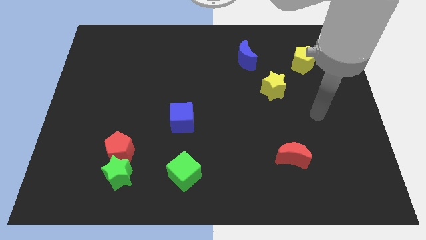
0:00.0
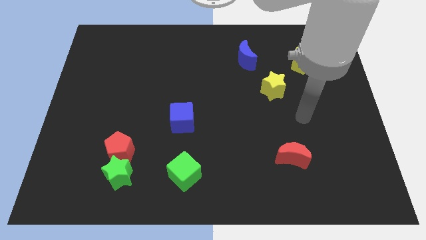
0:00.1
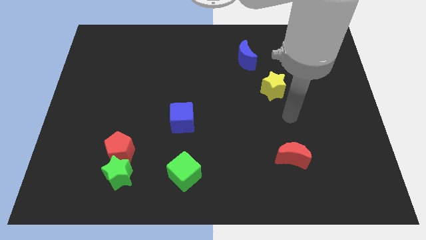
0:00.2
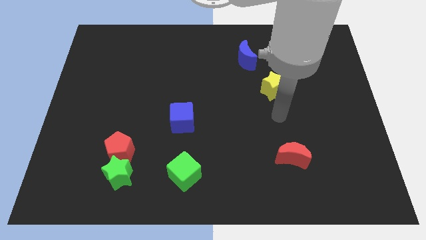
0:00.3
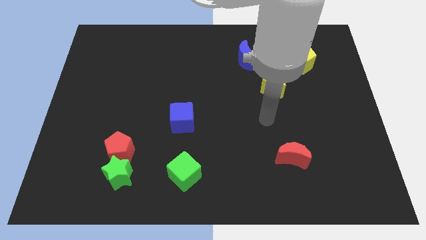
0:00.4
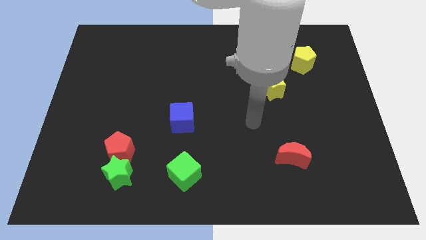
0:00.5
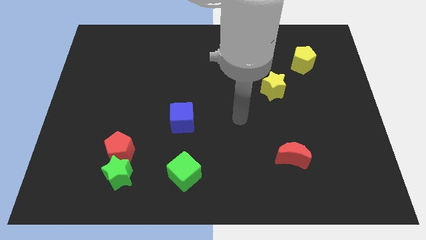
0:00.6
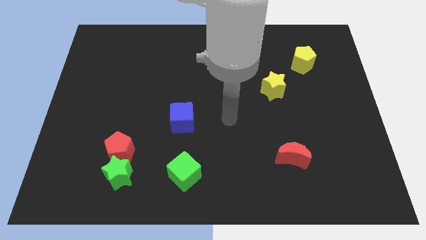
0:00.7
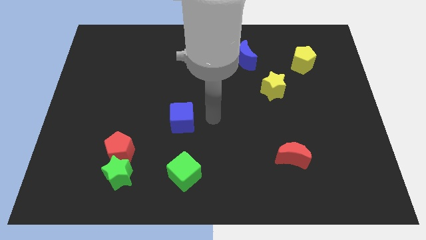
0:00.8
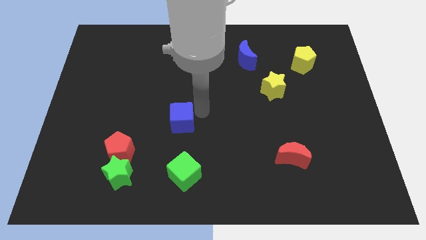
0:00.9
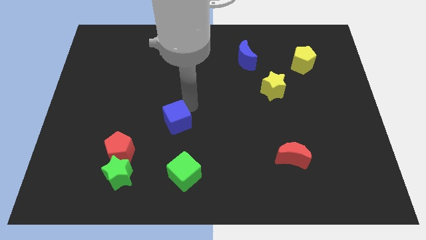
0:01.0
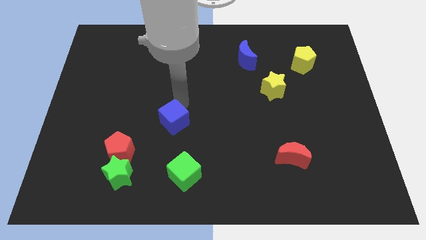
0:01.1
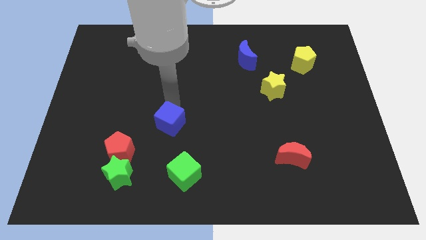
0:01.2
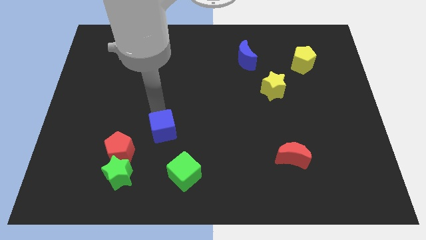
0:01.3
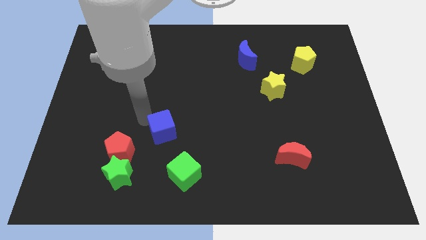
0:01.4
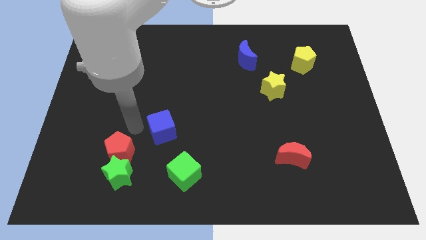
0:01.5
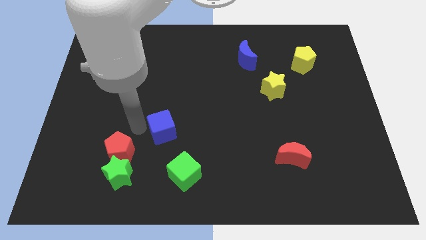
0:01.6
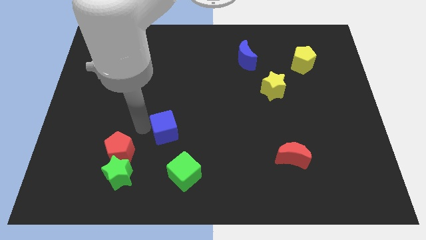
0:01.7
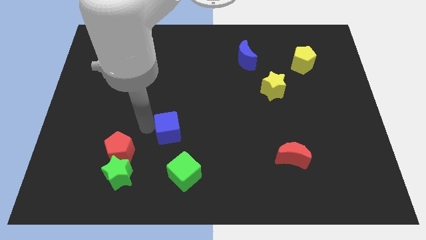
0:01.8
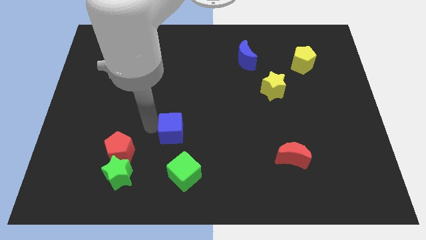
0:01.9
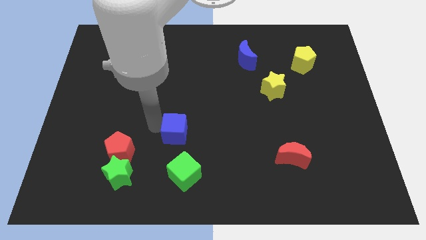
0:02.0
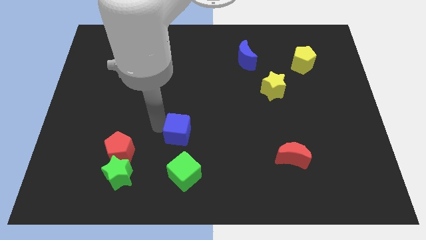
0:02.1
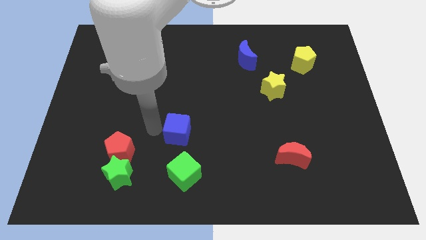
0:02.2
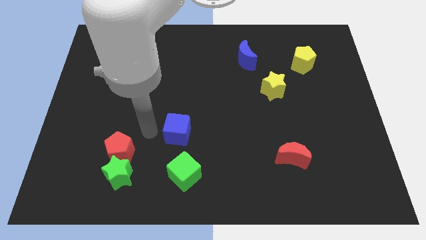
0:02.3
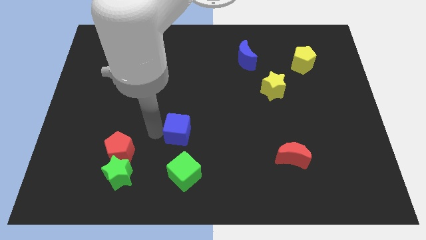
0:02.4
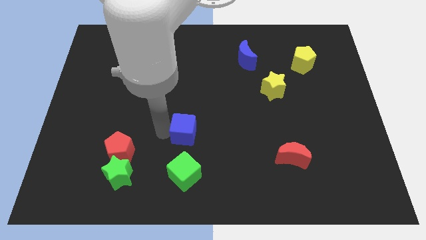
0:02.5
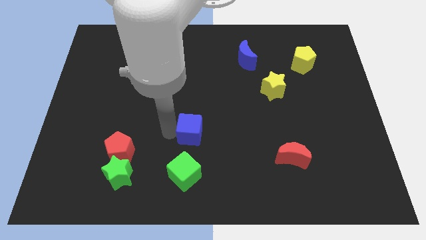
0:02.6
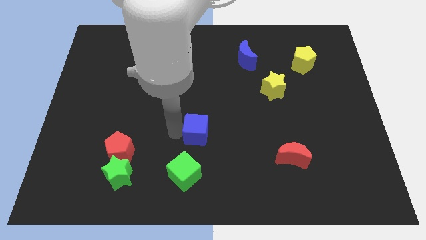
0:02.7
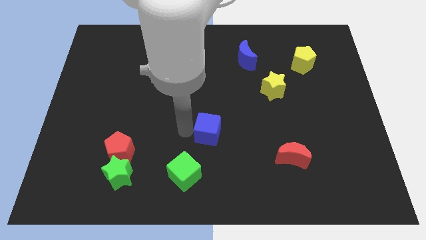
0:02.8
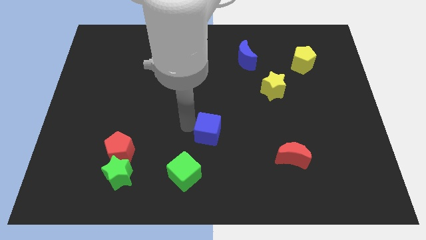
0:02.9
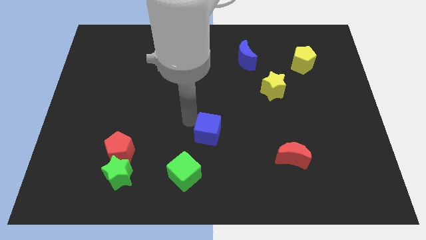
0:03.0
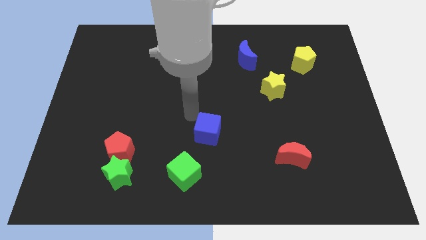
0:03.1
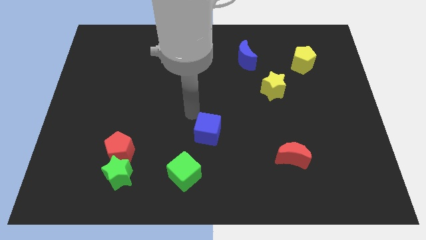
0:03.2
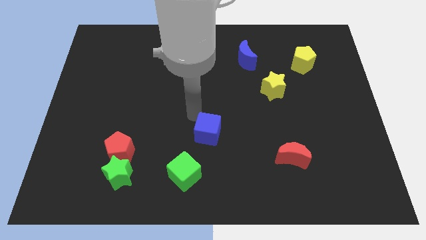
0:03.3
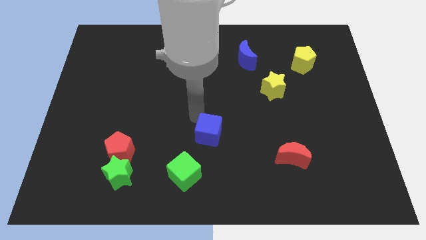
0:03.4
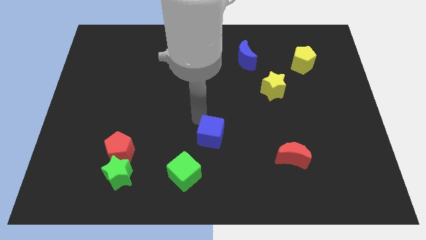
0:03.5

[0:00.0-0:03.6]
move the blue cube slightly down and to the right

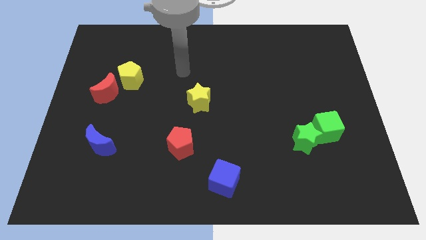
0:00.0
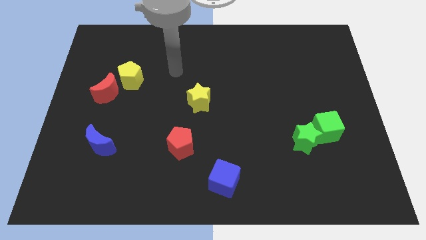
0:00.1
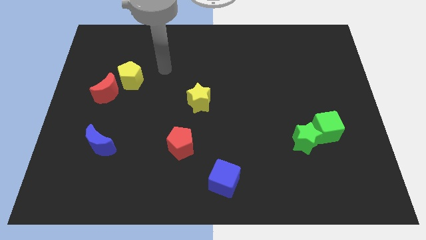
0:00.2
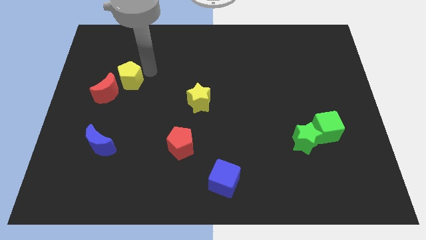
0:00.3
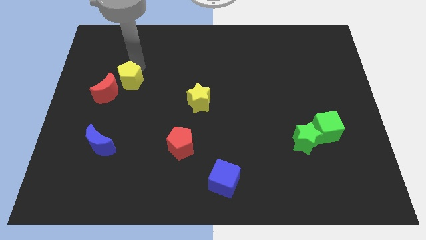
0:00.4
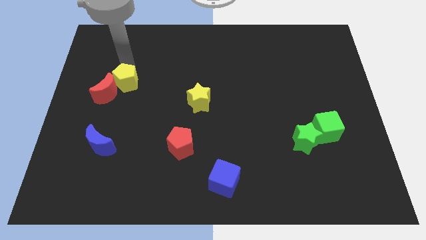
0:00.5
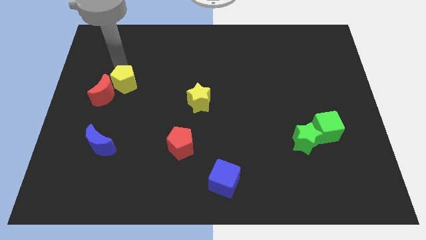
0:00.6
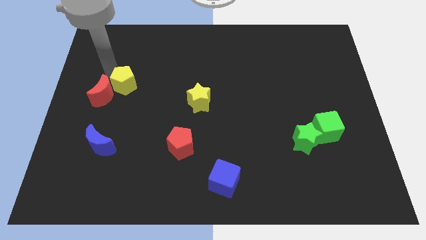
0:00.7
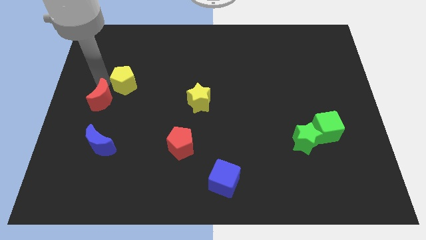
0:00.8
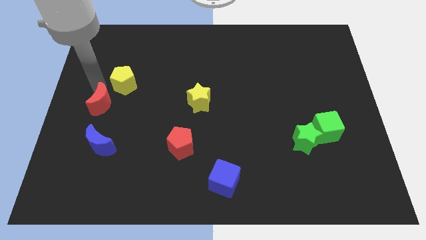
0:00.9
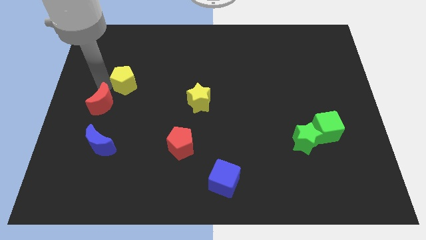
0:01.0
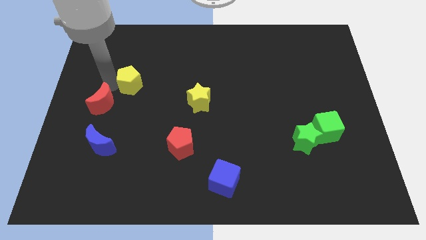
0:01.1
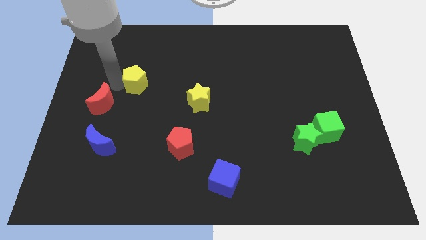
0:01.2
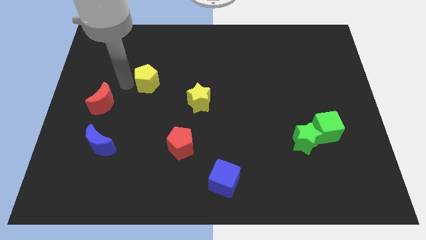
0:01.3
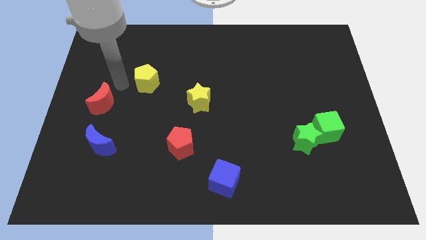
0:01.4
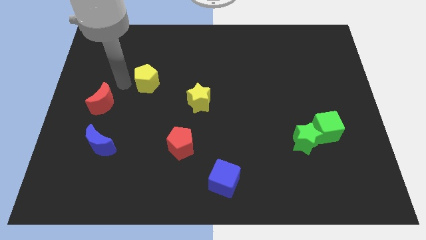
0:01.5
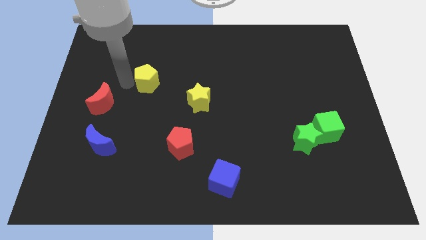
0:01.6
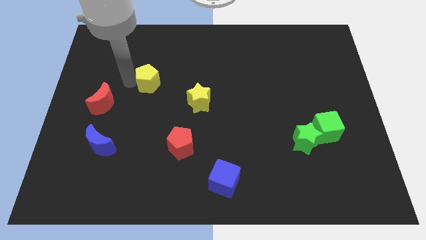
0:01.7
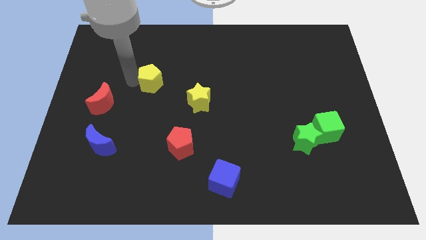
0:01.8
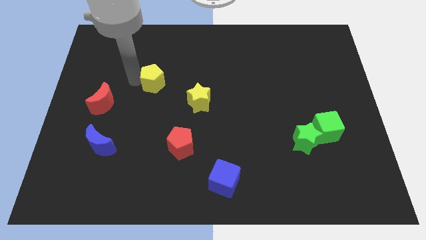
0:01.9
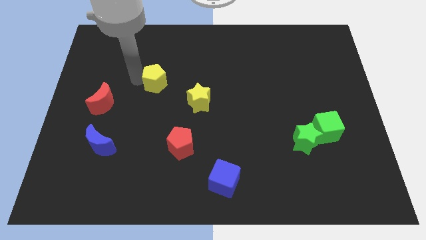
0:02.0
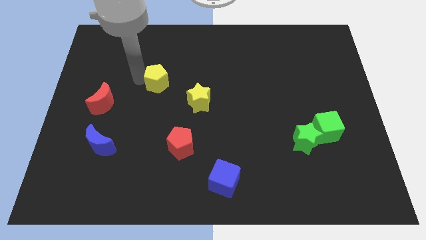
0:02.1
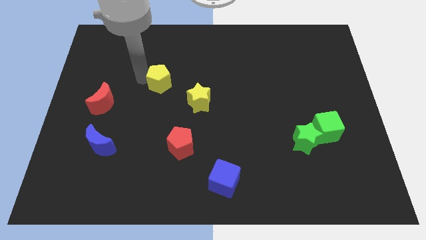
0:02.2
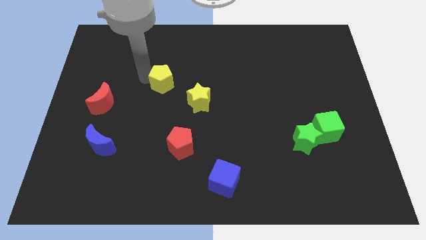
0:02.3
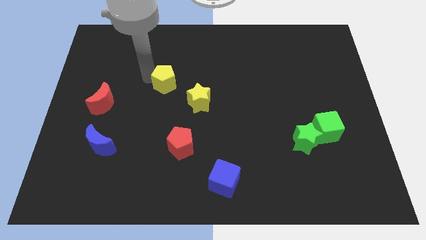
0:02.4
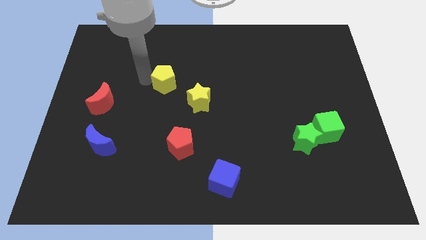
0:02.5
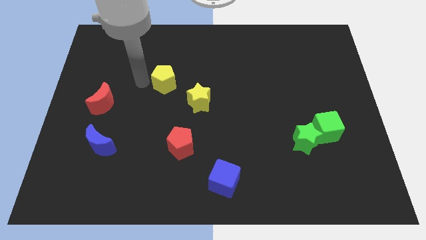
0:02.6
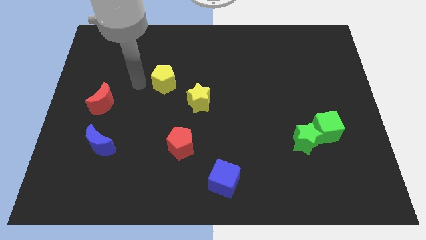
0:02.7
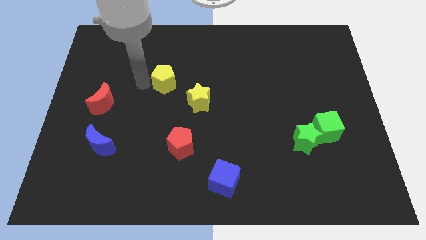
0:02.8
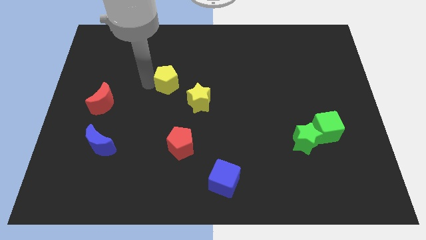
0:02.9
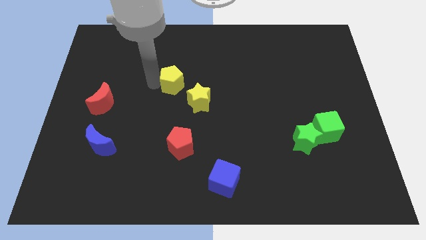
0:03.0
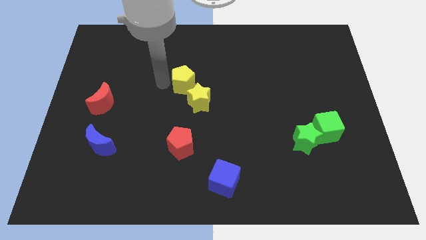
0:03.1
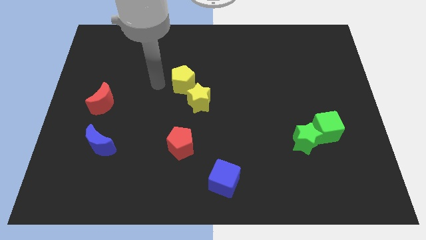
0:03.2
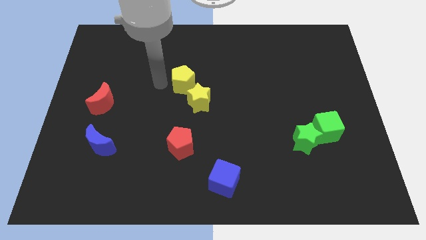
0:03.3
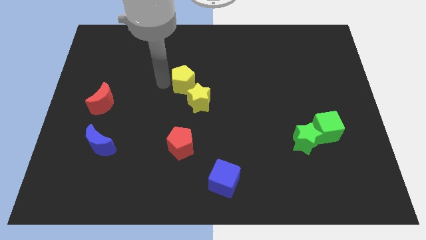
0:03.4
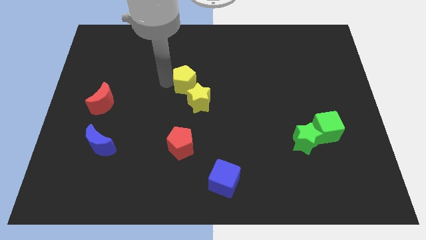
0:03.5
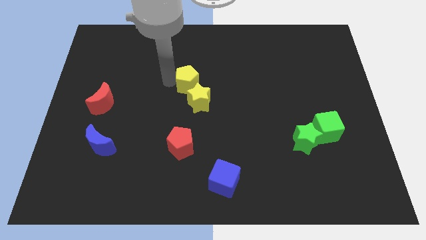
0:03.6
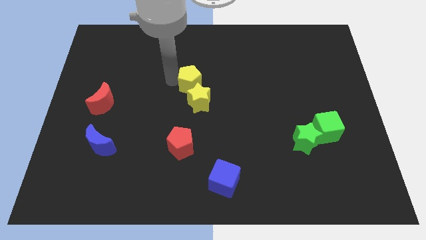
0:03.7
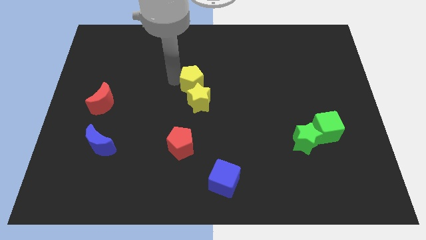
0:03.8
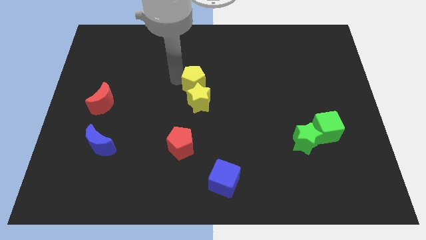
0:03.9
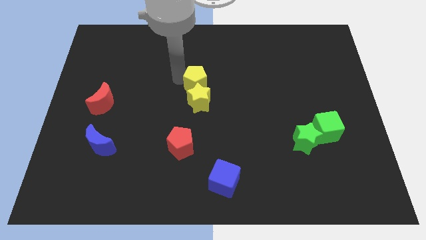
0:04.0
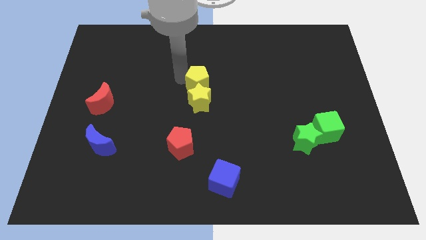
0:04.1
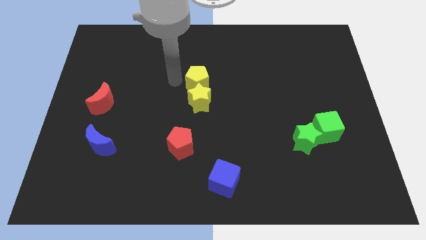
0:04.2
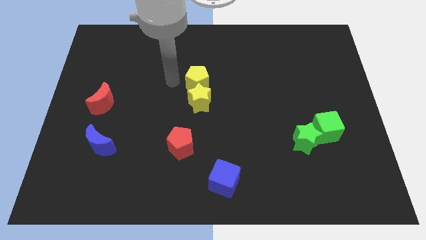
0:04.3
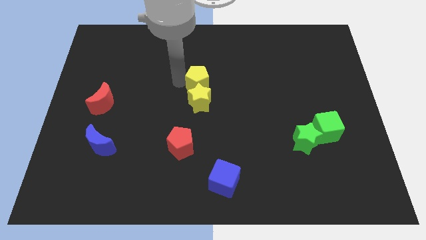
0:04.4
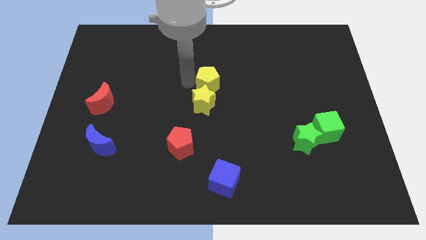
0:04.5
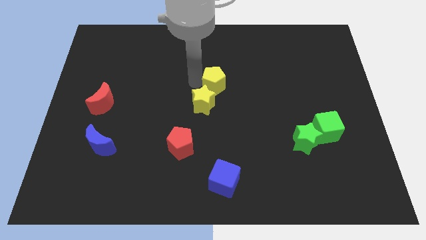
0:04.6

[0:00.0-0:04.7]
slide the yellow pentagon to the right
